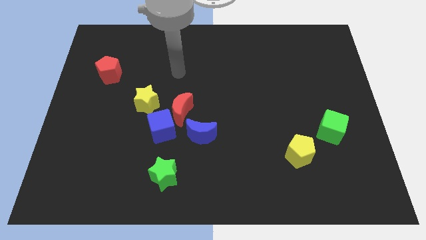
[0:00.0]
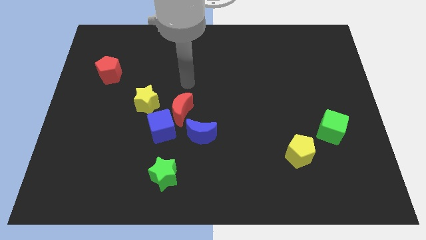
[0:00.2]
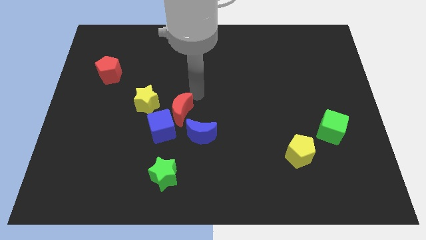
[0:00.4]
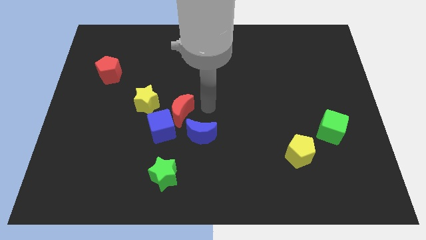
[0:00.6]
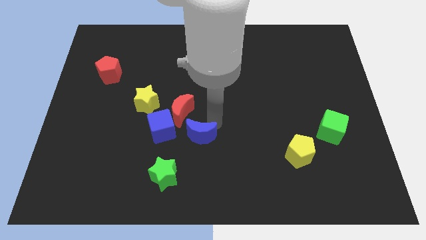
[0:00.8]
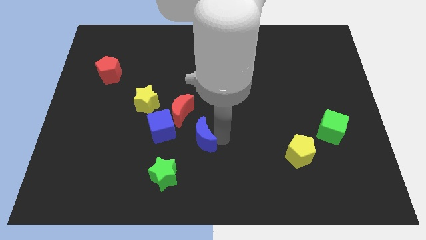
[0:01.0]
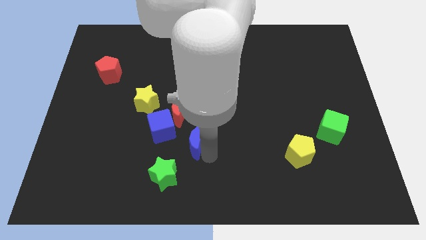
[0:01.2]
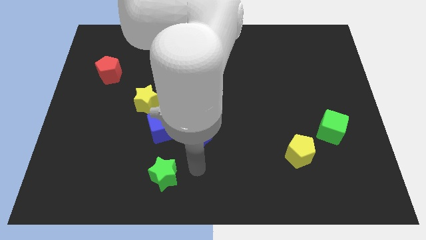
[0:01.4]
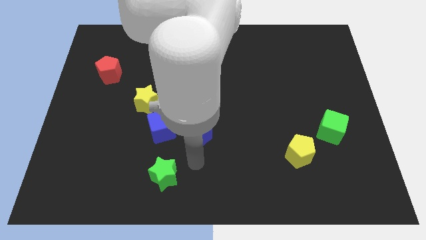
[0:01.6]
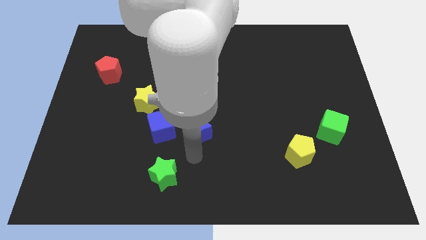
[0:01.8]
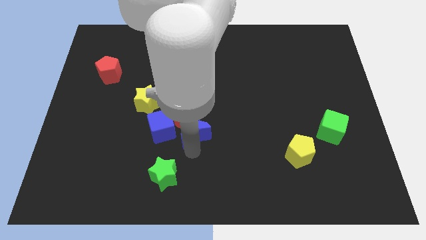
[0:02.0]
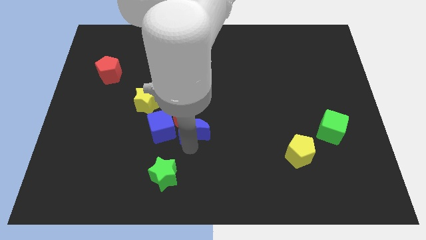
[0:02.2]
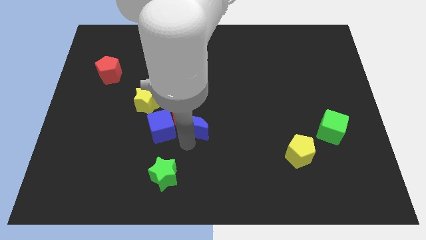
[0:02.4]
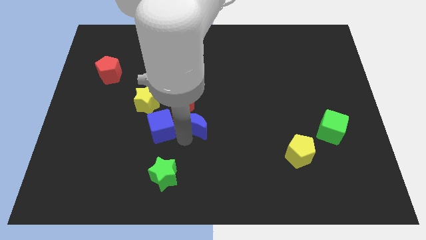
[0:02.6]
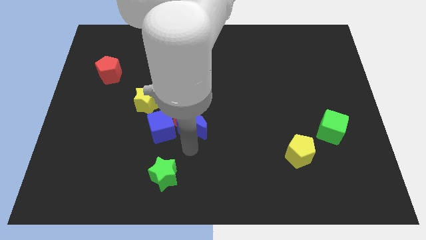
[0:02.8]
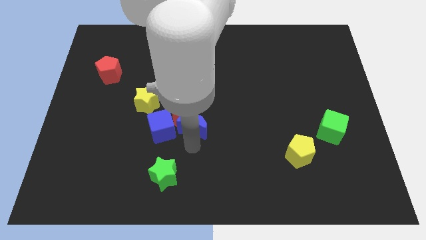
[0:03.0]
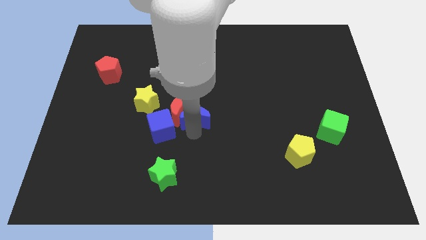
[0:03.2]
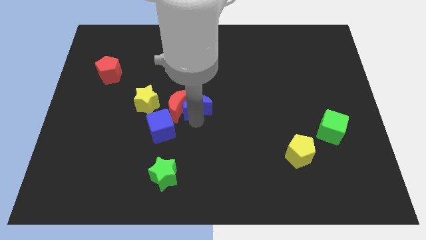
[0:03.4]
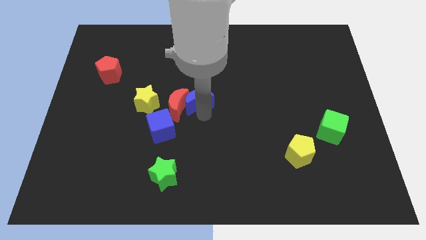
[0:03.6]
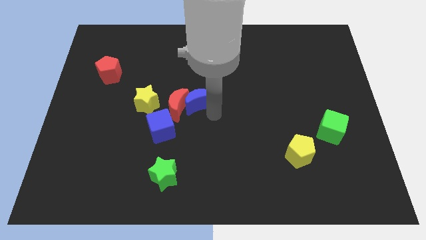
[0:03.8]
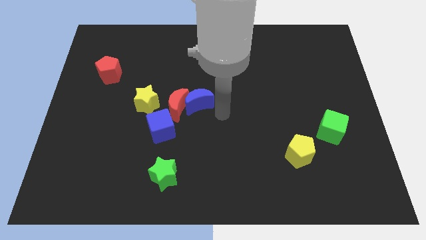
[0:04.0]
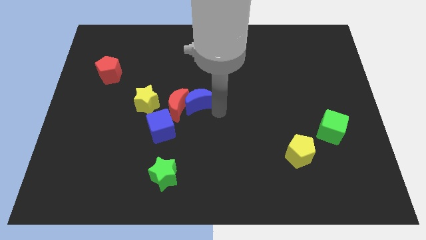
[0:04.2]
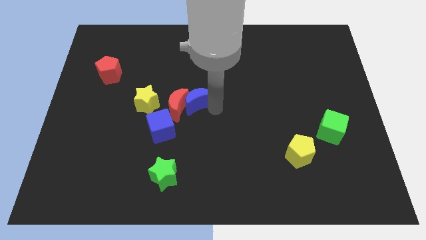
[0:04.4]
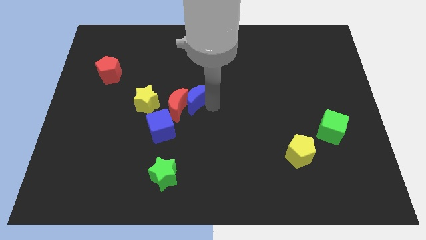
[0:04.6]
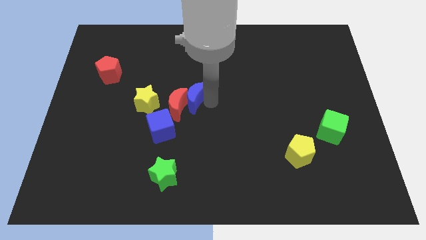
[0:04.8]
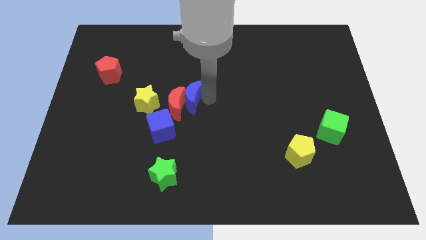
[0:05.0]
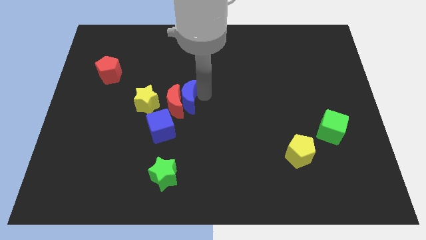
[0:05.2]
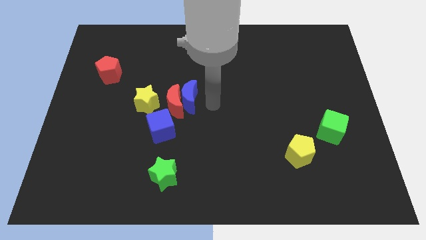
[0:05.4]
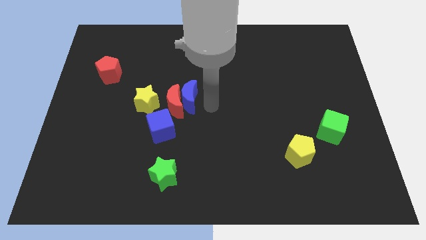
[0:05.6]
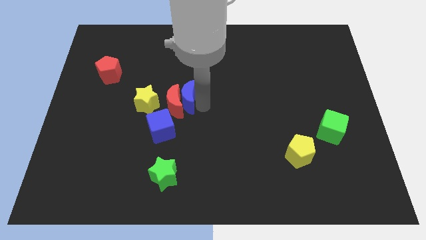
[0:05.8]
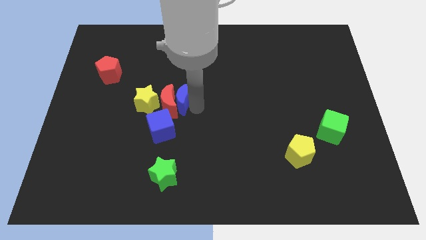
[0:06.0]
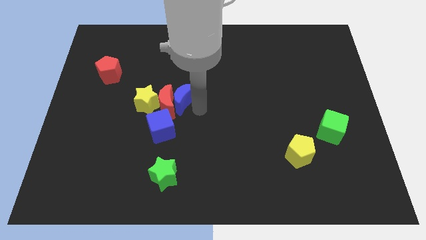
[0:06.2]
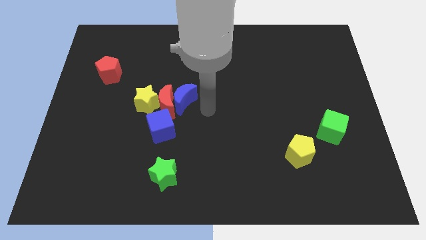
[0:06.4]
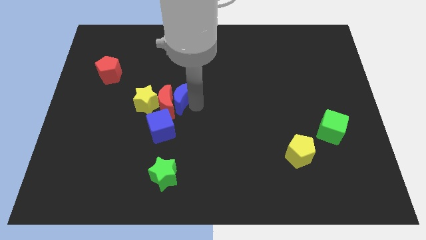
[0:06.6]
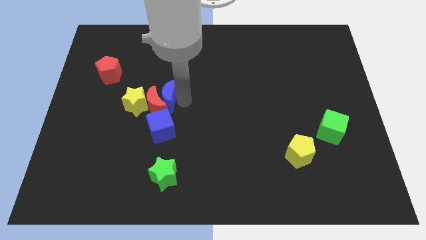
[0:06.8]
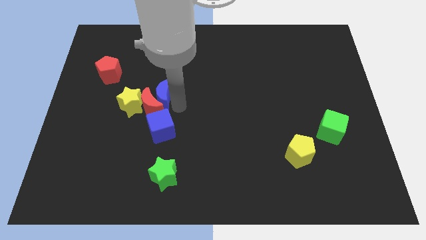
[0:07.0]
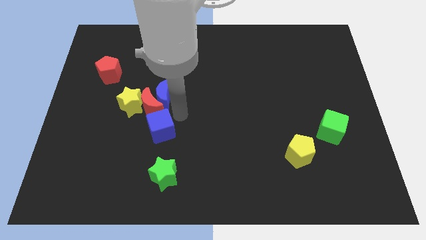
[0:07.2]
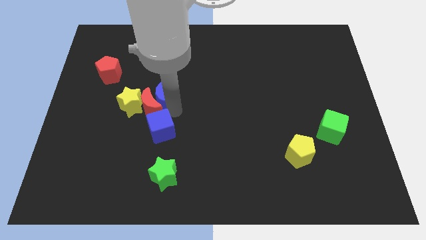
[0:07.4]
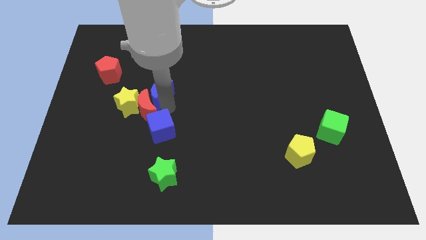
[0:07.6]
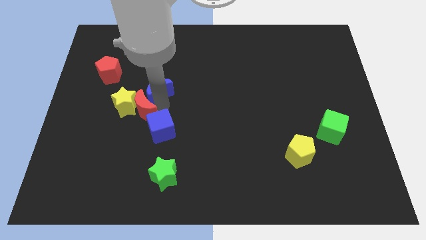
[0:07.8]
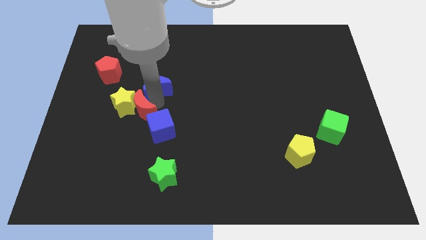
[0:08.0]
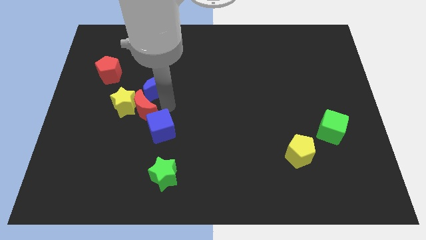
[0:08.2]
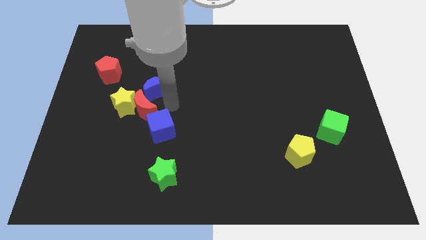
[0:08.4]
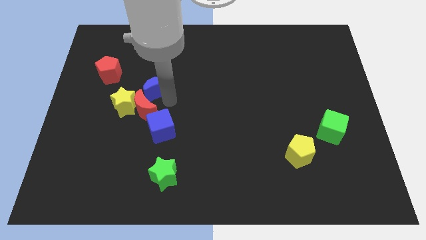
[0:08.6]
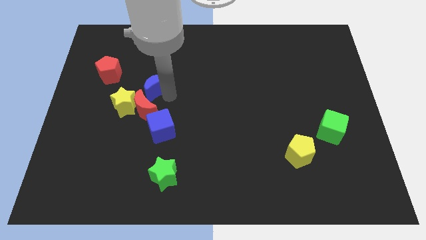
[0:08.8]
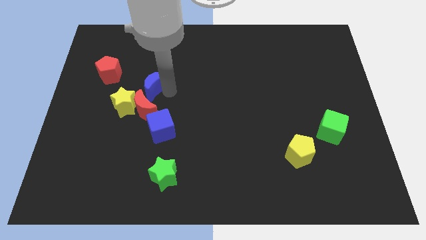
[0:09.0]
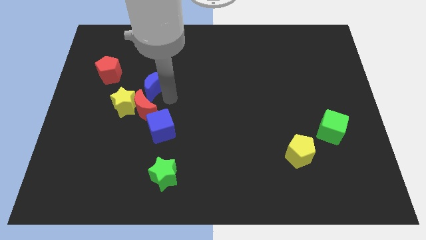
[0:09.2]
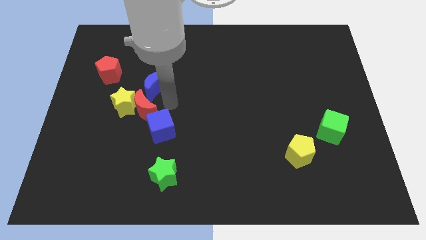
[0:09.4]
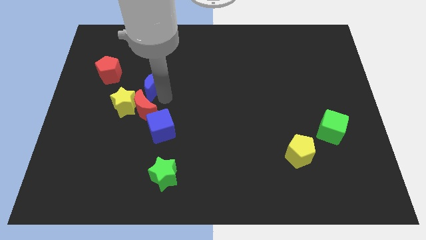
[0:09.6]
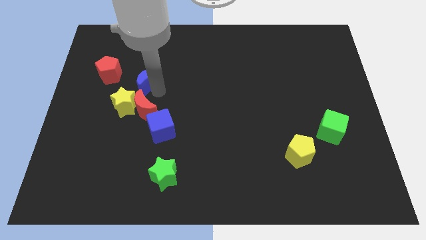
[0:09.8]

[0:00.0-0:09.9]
push the blue moon diagonally upwards and to the left

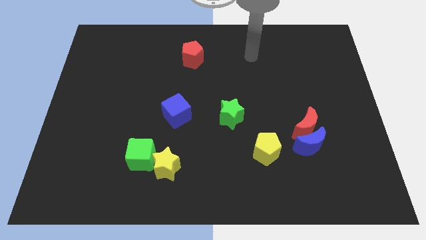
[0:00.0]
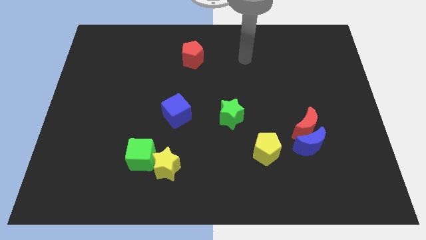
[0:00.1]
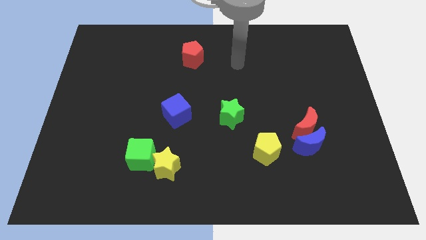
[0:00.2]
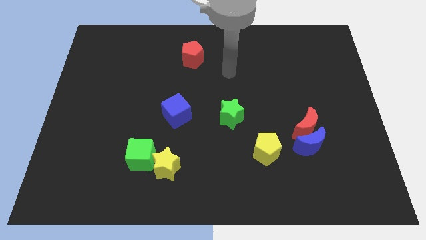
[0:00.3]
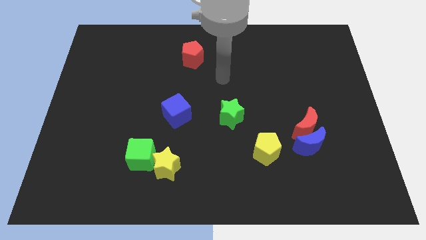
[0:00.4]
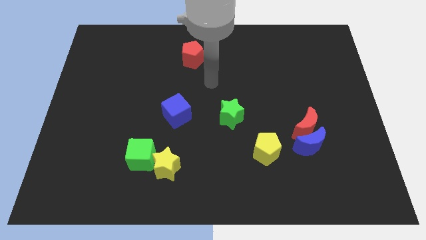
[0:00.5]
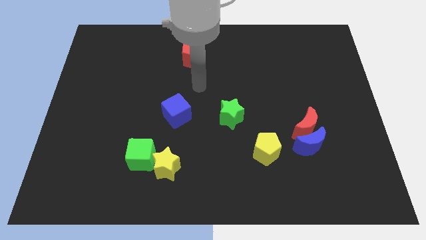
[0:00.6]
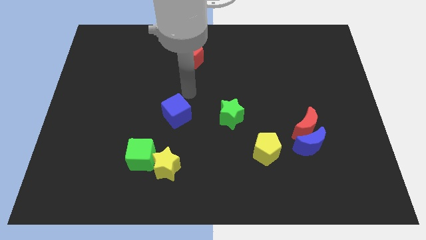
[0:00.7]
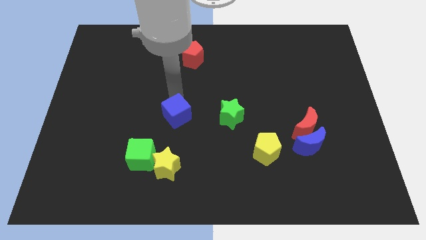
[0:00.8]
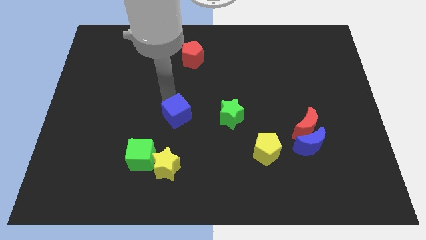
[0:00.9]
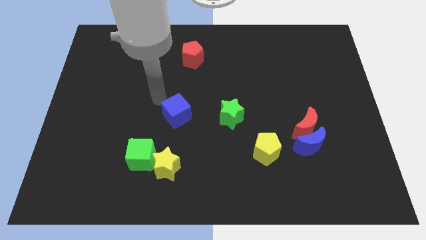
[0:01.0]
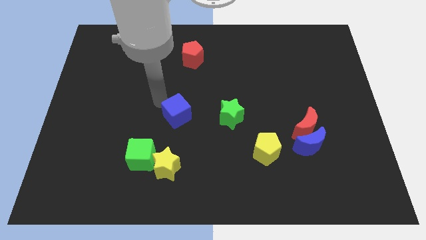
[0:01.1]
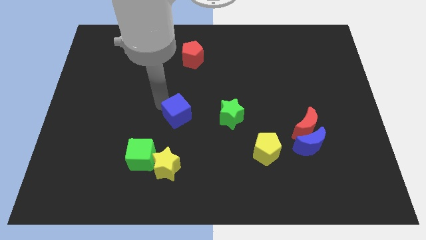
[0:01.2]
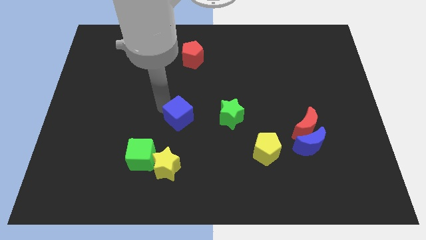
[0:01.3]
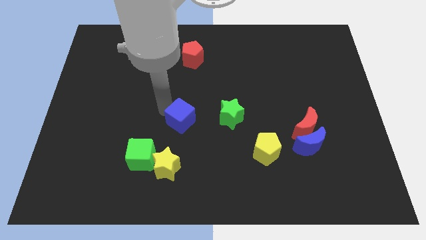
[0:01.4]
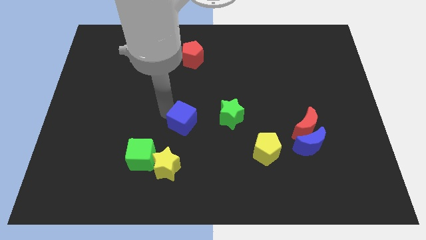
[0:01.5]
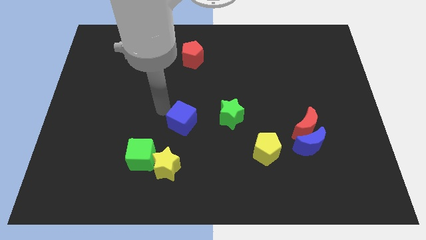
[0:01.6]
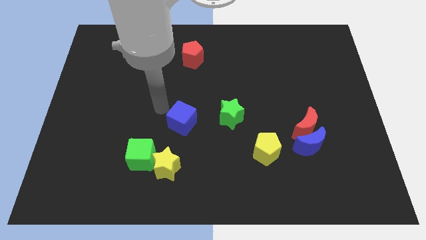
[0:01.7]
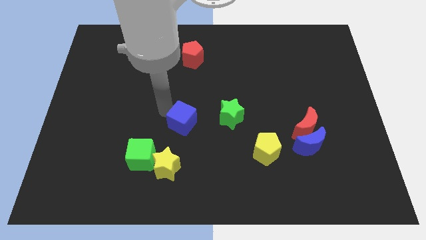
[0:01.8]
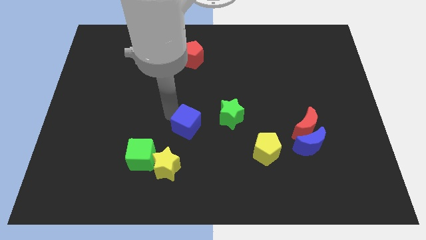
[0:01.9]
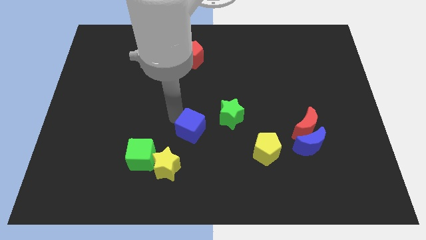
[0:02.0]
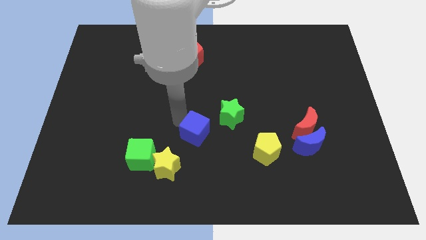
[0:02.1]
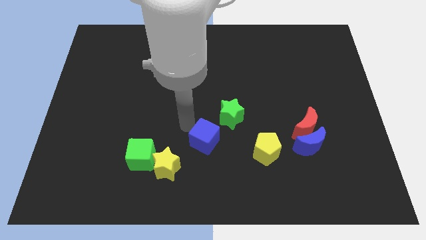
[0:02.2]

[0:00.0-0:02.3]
slightly move the blue cube down and right diagonally

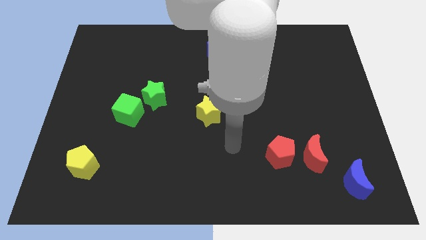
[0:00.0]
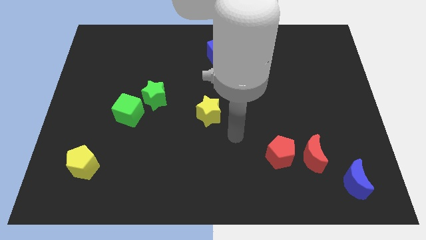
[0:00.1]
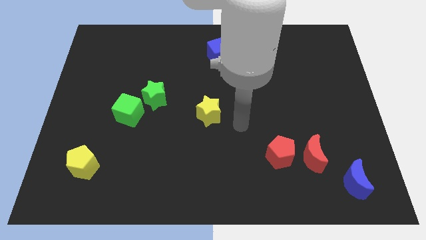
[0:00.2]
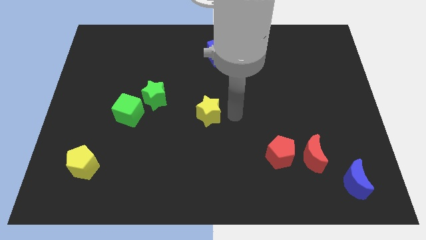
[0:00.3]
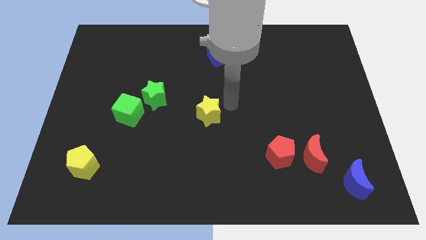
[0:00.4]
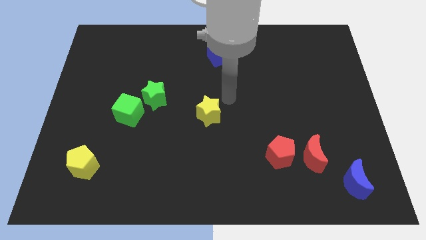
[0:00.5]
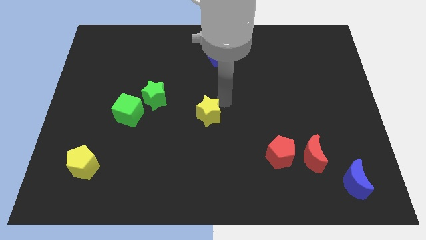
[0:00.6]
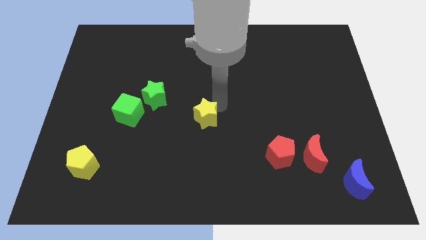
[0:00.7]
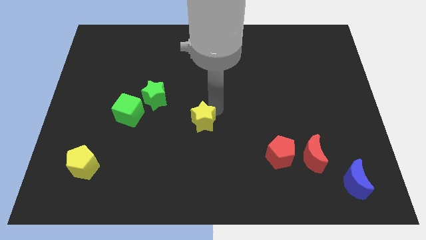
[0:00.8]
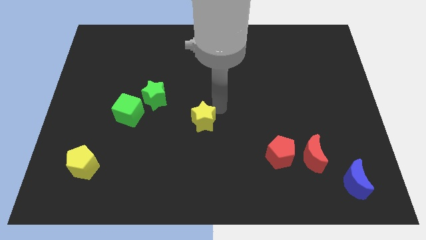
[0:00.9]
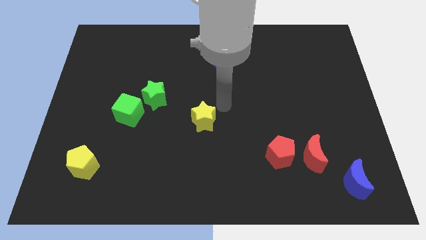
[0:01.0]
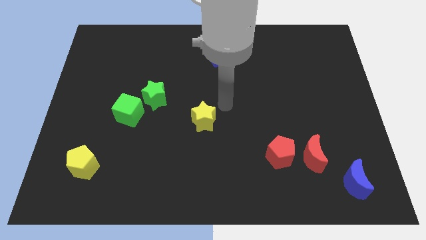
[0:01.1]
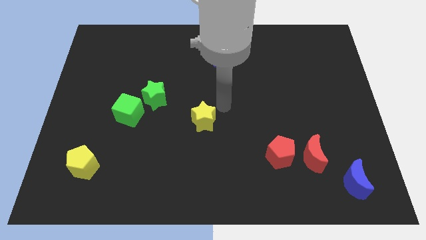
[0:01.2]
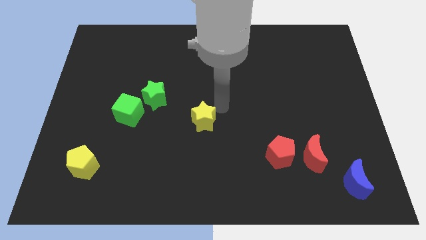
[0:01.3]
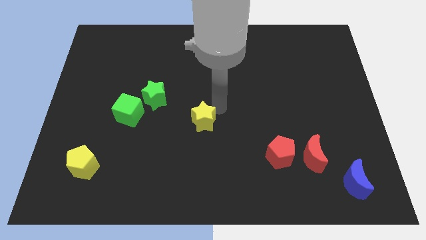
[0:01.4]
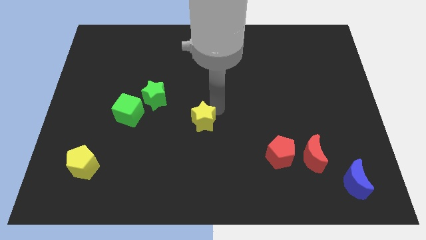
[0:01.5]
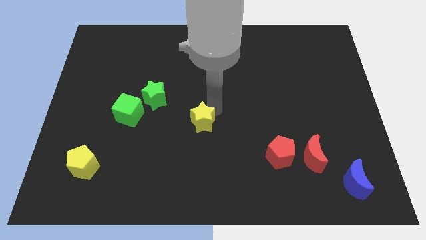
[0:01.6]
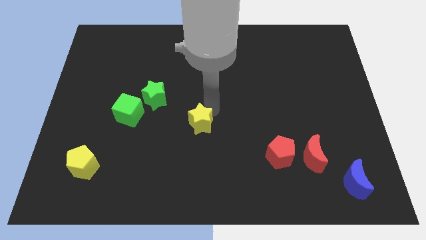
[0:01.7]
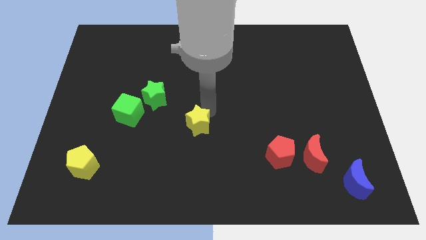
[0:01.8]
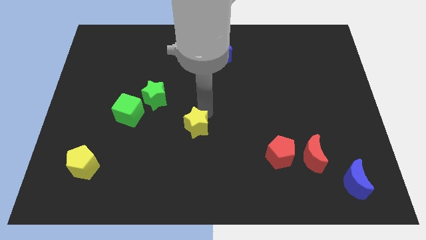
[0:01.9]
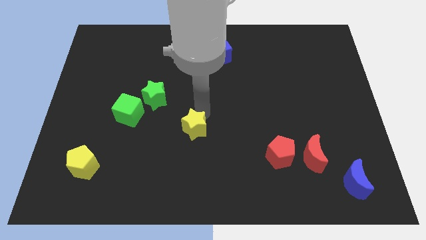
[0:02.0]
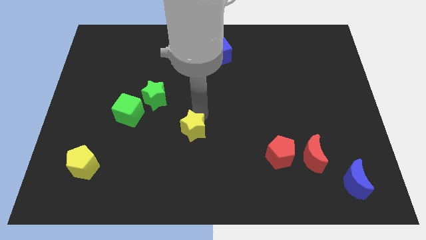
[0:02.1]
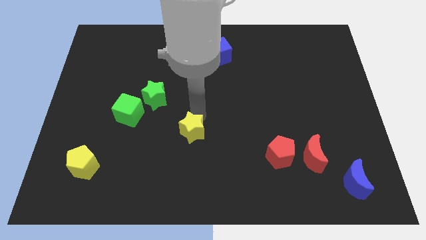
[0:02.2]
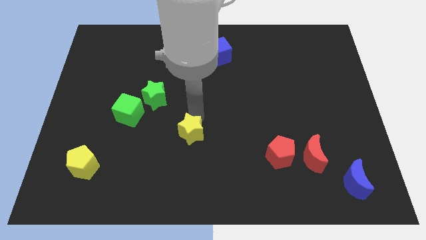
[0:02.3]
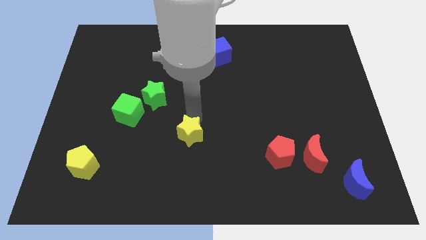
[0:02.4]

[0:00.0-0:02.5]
move the yellow star a little bit diagonally downwards and left
